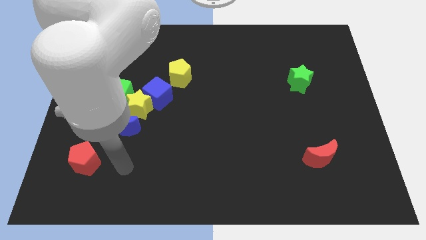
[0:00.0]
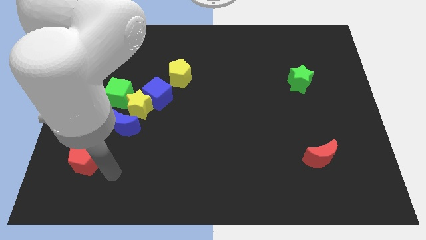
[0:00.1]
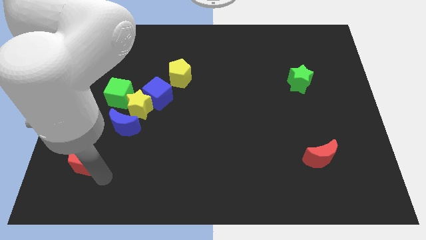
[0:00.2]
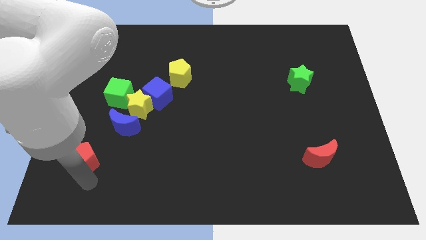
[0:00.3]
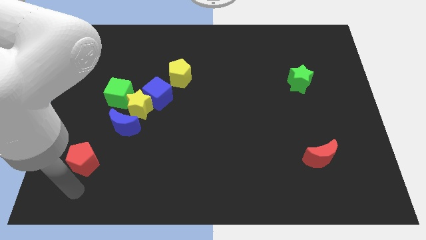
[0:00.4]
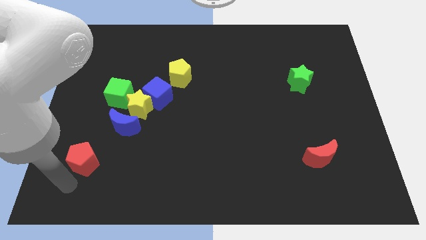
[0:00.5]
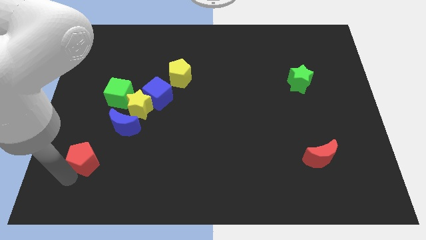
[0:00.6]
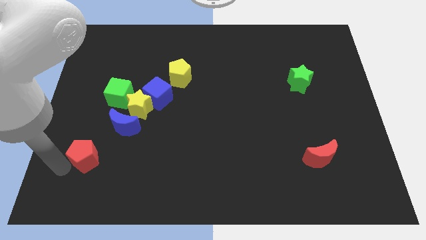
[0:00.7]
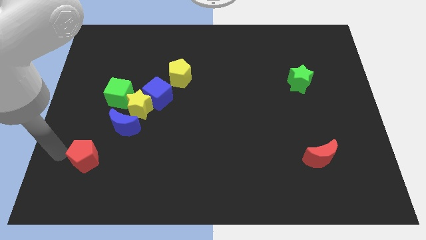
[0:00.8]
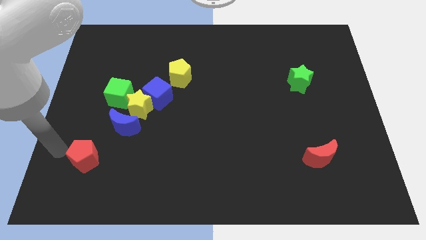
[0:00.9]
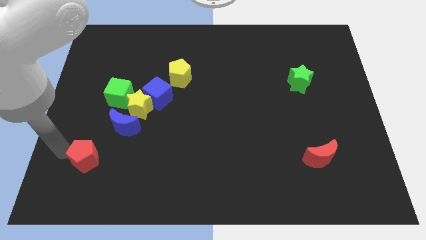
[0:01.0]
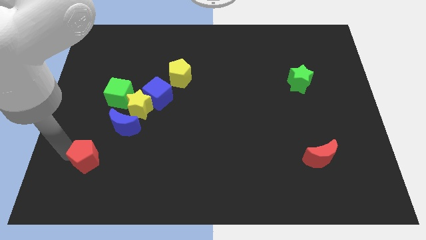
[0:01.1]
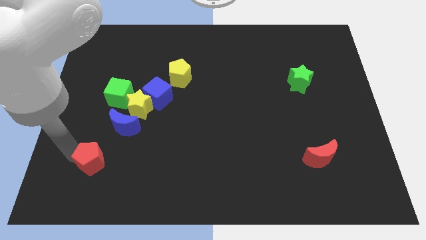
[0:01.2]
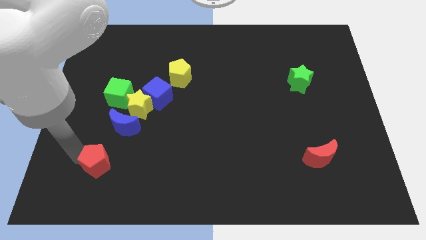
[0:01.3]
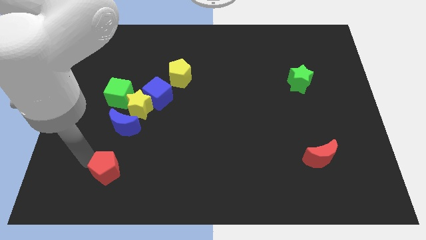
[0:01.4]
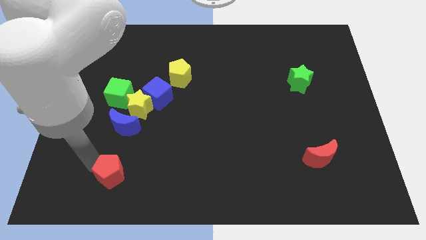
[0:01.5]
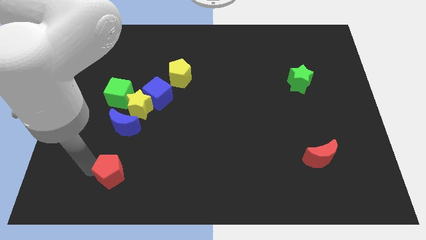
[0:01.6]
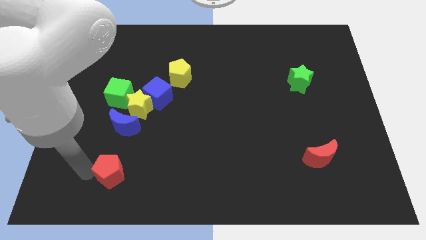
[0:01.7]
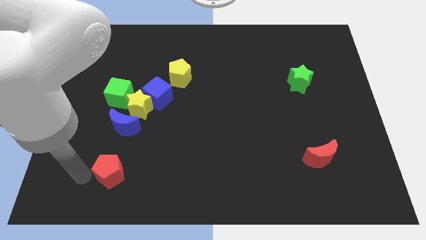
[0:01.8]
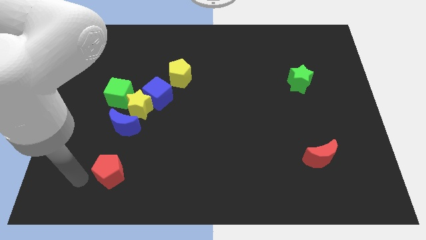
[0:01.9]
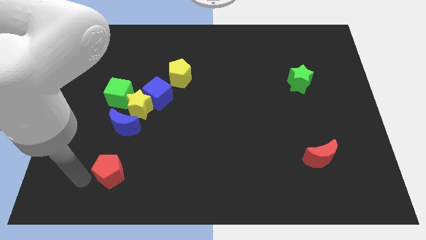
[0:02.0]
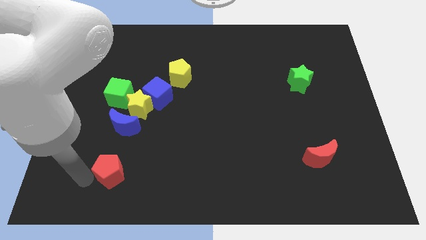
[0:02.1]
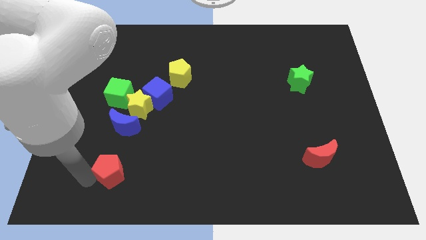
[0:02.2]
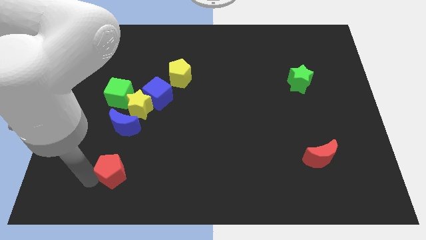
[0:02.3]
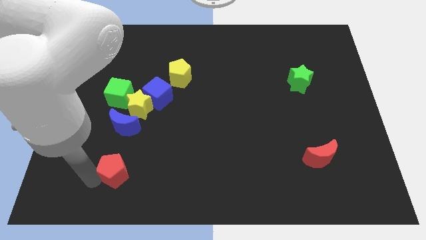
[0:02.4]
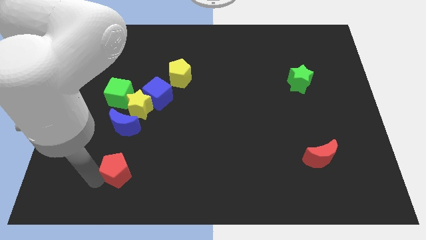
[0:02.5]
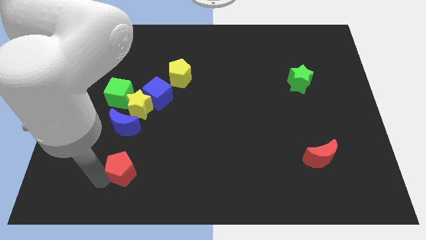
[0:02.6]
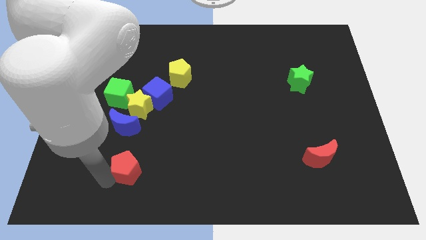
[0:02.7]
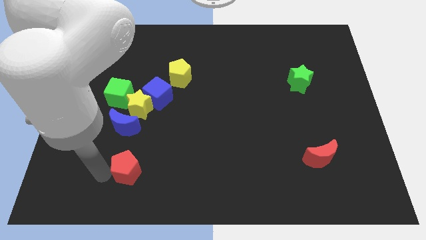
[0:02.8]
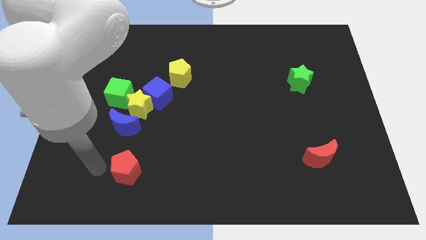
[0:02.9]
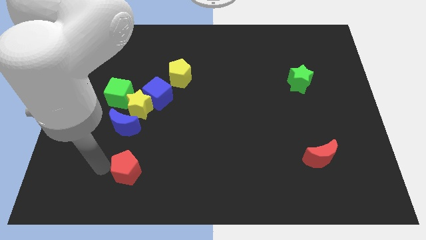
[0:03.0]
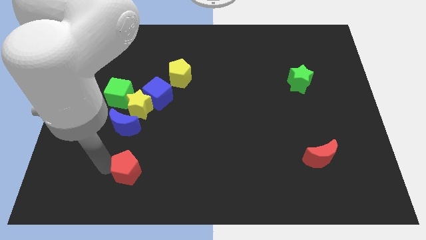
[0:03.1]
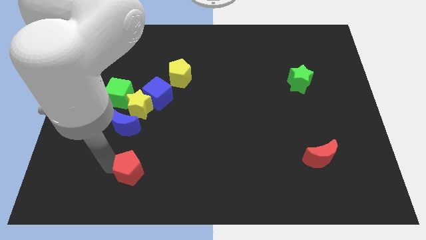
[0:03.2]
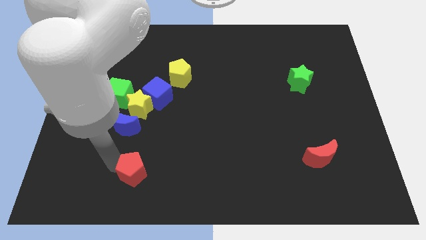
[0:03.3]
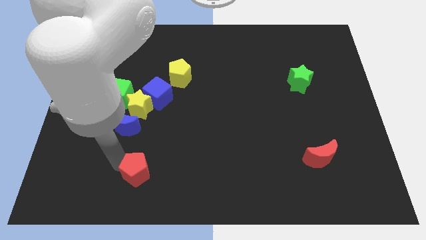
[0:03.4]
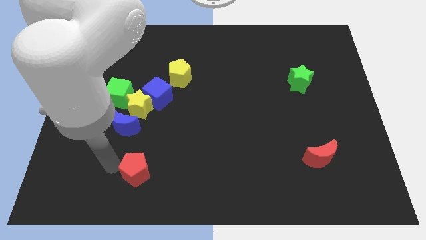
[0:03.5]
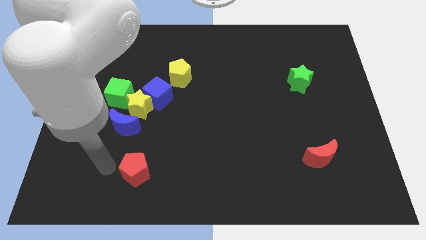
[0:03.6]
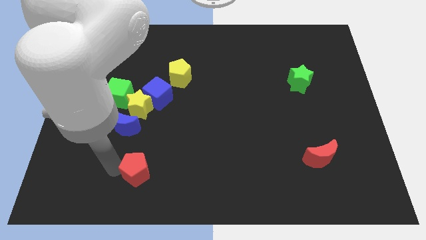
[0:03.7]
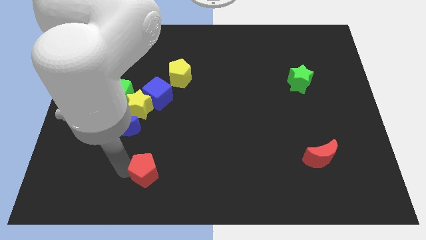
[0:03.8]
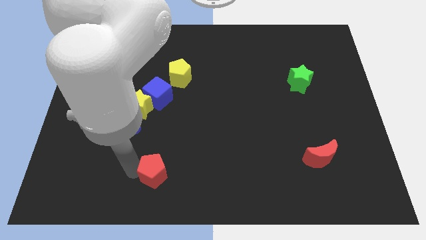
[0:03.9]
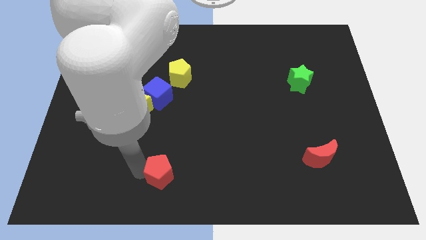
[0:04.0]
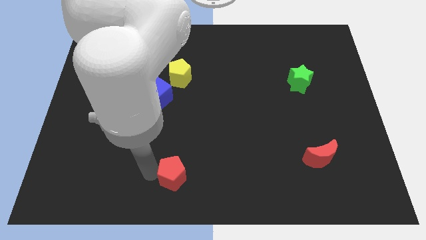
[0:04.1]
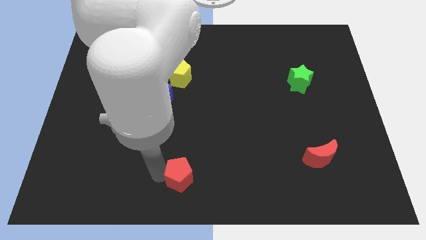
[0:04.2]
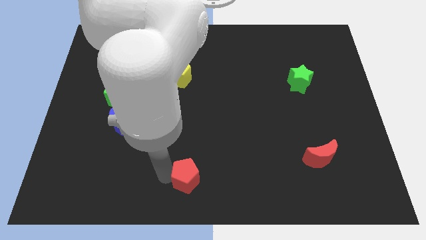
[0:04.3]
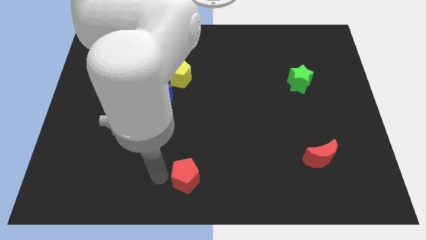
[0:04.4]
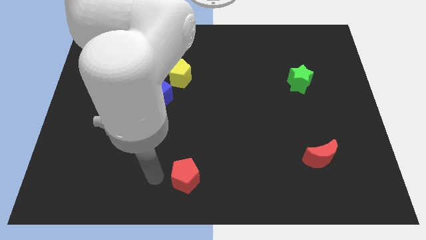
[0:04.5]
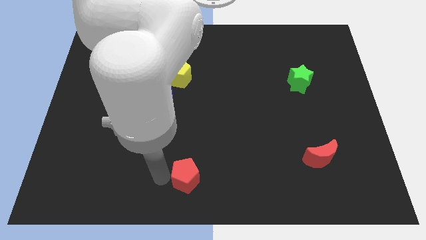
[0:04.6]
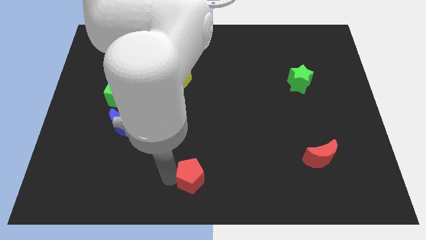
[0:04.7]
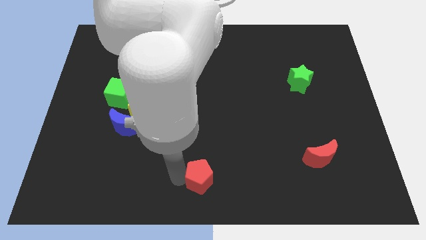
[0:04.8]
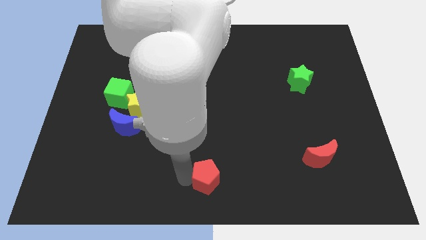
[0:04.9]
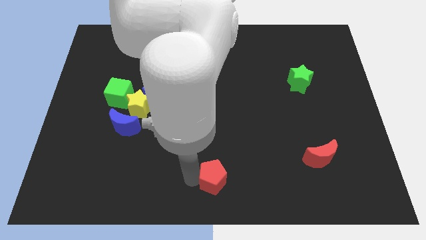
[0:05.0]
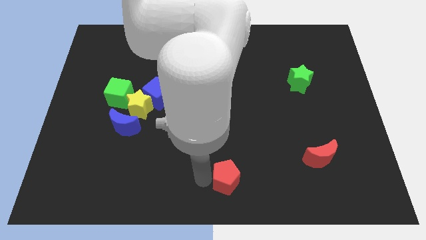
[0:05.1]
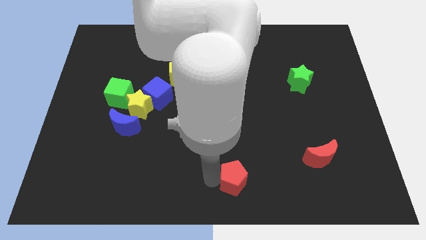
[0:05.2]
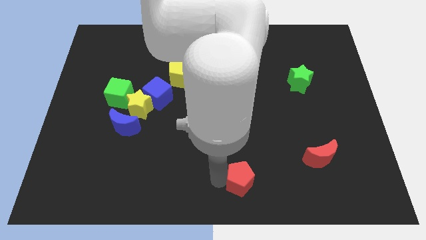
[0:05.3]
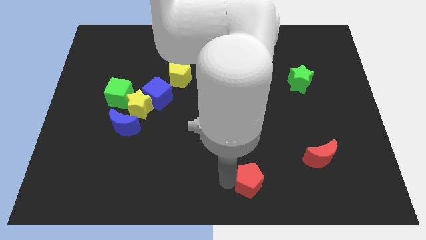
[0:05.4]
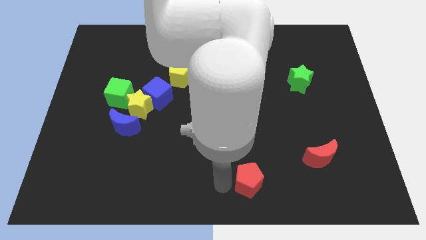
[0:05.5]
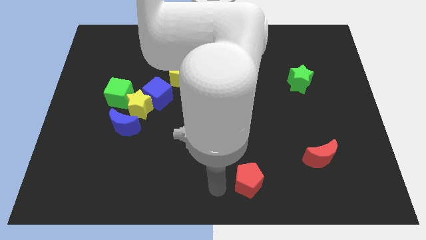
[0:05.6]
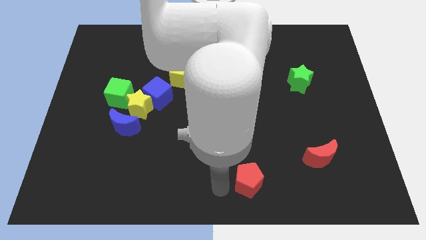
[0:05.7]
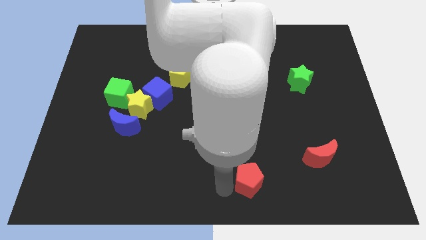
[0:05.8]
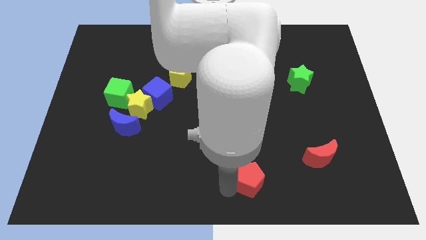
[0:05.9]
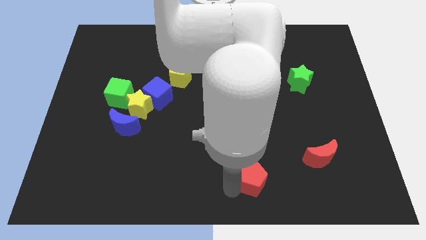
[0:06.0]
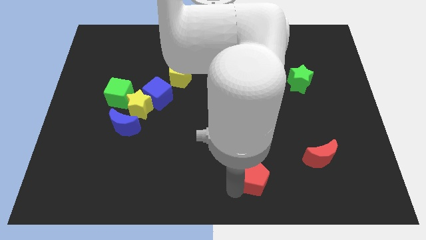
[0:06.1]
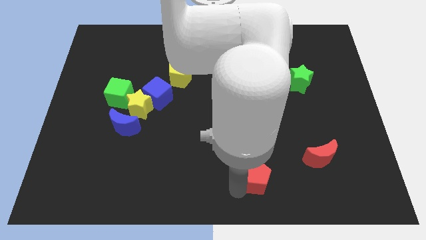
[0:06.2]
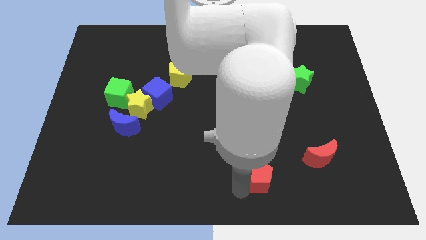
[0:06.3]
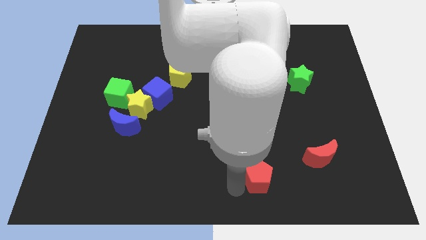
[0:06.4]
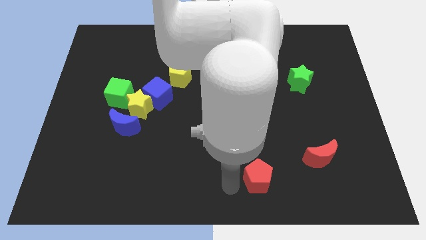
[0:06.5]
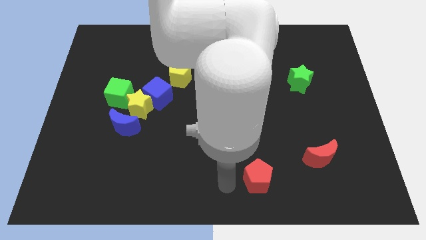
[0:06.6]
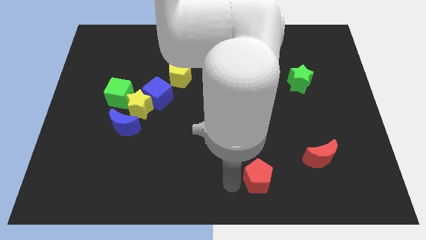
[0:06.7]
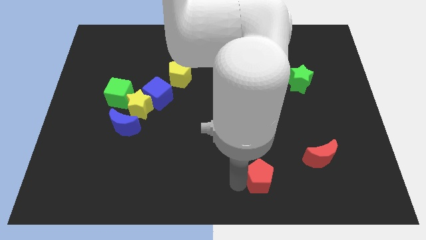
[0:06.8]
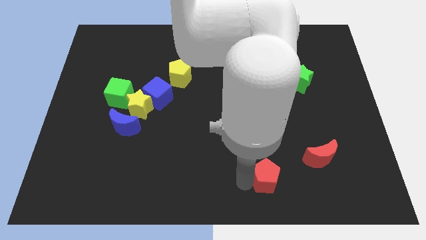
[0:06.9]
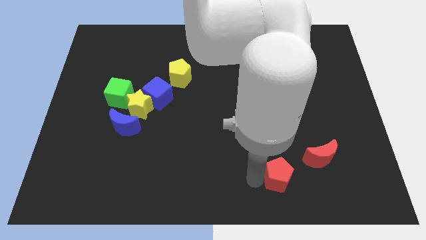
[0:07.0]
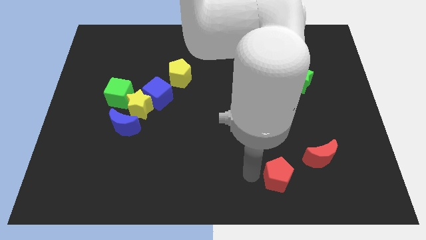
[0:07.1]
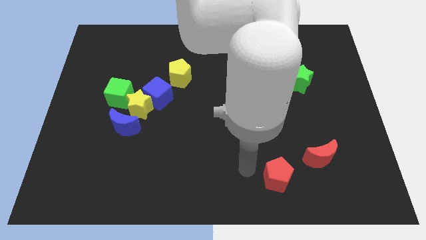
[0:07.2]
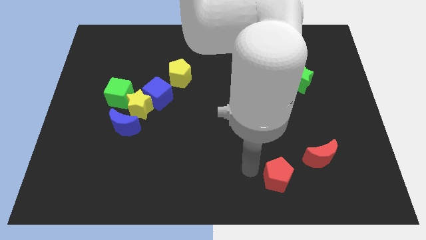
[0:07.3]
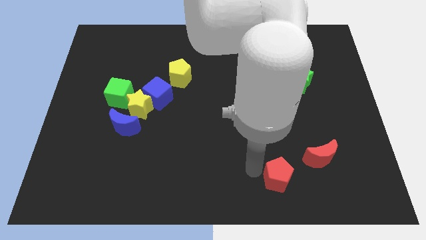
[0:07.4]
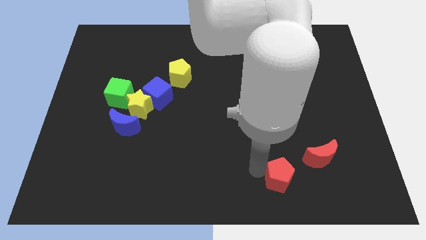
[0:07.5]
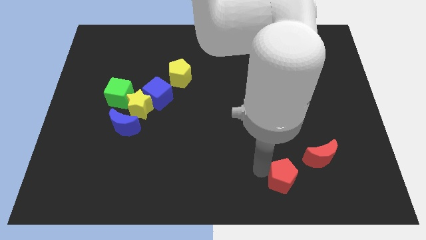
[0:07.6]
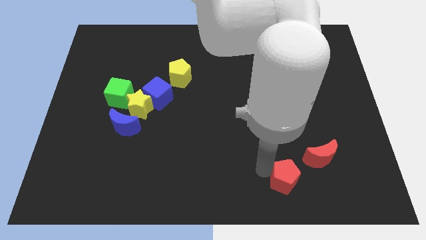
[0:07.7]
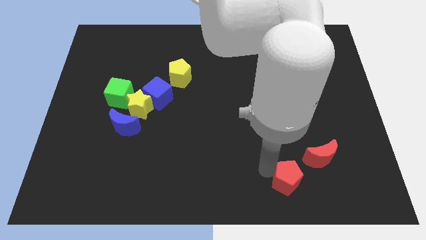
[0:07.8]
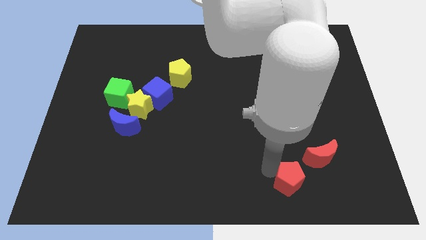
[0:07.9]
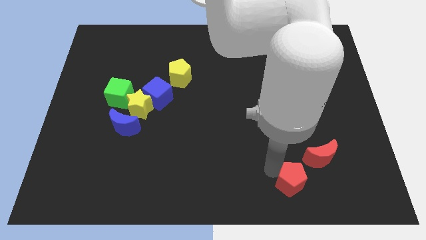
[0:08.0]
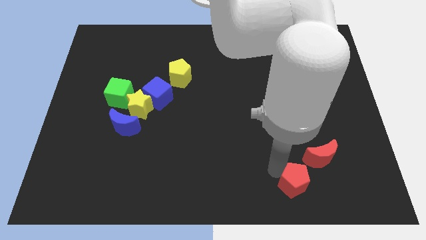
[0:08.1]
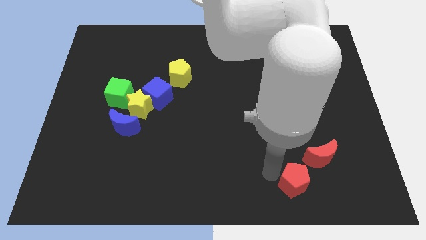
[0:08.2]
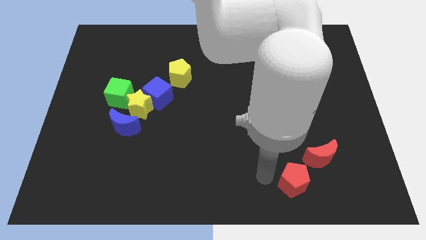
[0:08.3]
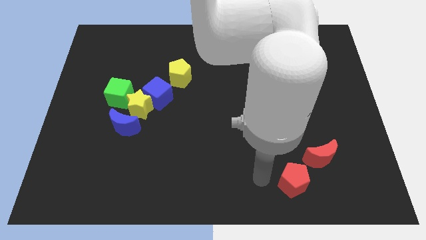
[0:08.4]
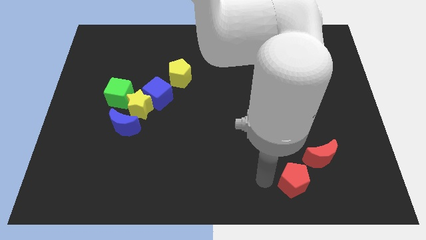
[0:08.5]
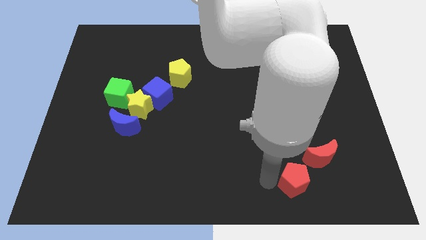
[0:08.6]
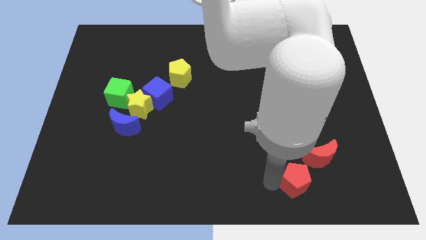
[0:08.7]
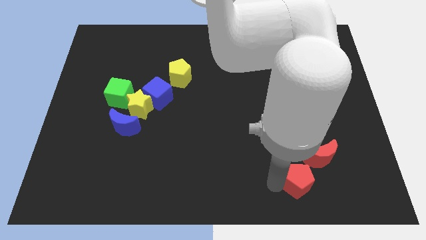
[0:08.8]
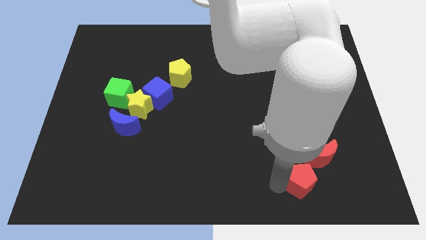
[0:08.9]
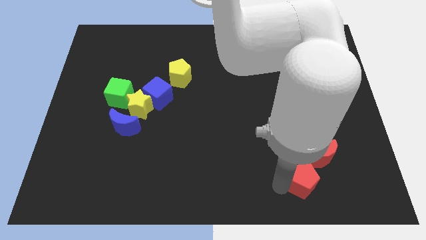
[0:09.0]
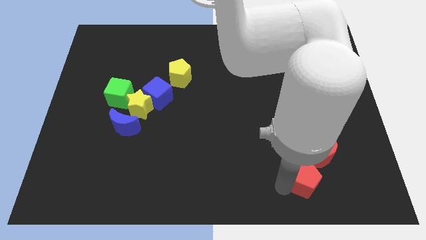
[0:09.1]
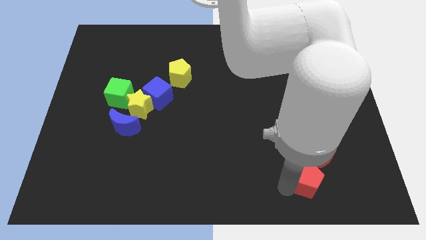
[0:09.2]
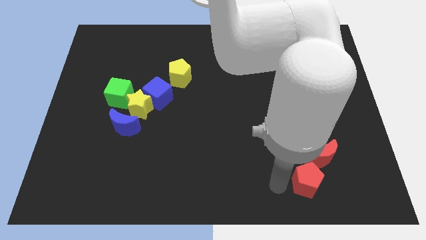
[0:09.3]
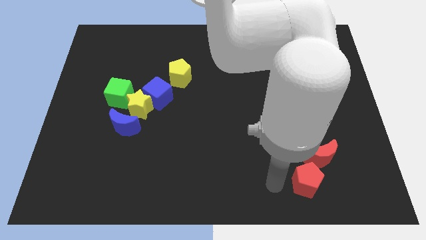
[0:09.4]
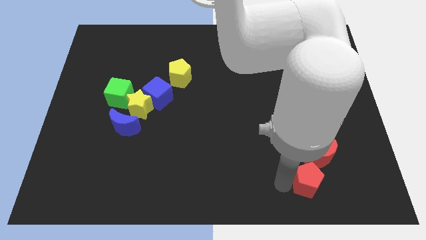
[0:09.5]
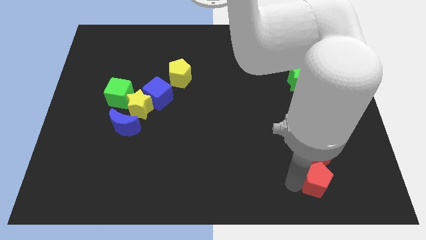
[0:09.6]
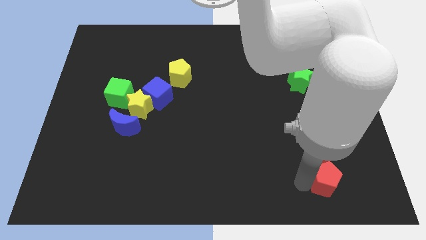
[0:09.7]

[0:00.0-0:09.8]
put the red pentagon to the bottom right of the red moon
